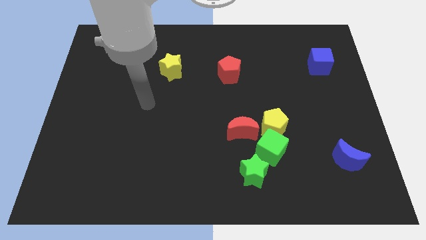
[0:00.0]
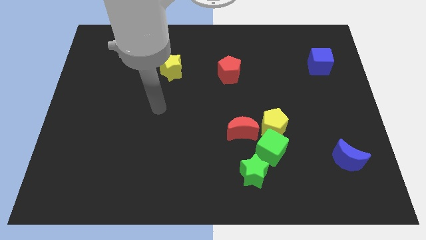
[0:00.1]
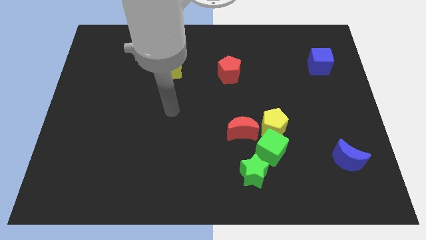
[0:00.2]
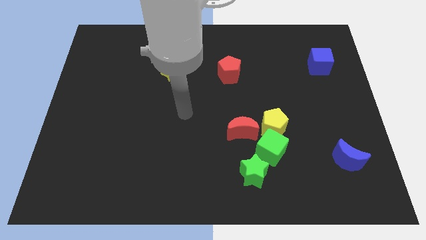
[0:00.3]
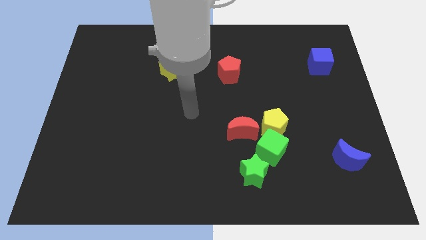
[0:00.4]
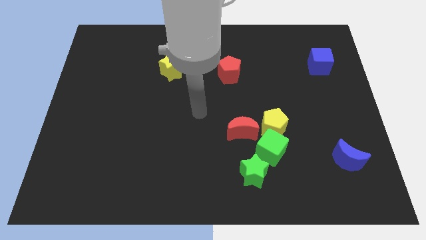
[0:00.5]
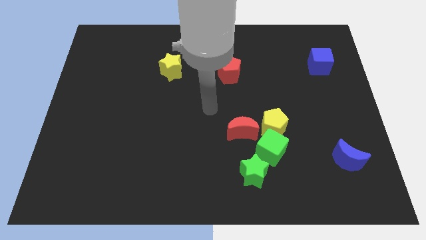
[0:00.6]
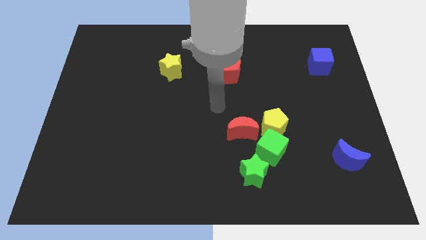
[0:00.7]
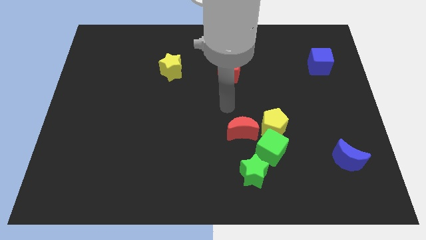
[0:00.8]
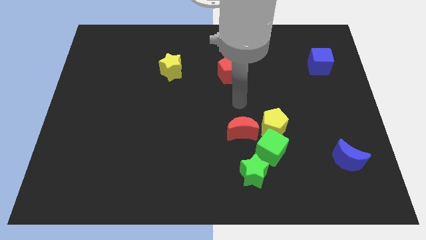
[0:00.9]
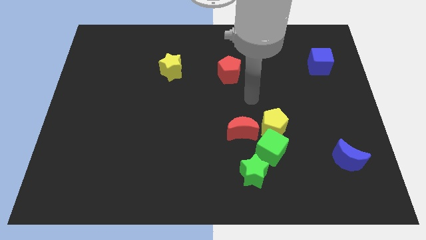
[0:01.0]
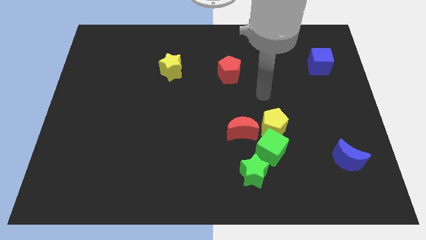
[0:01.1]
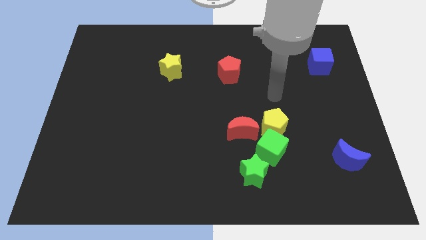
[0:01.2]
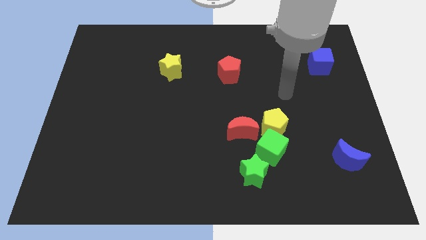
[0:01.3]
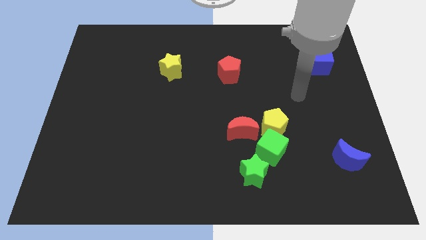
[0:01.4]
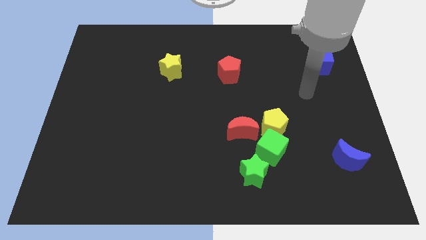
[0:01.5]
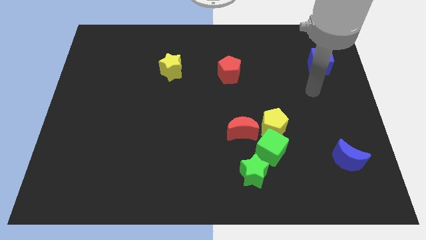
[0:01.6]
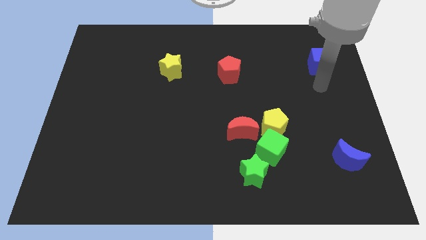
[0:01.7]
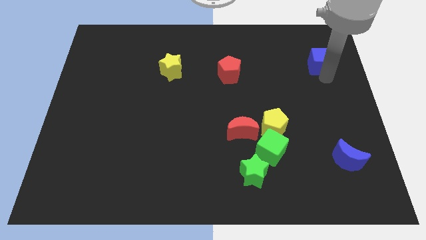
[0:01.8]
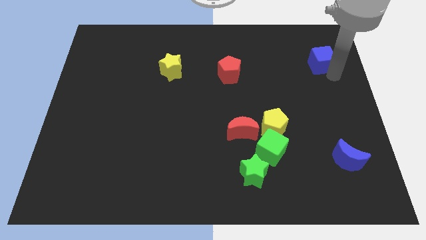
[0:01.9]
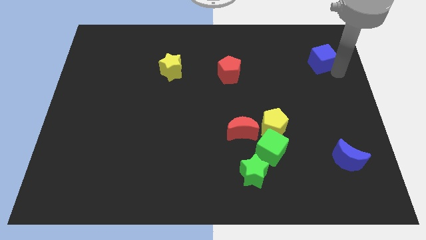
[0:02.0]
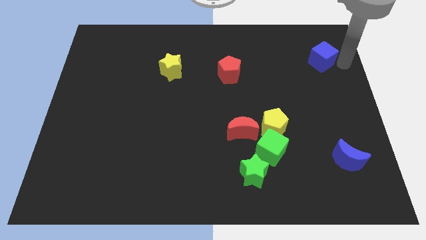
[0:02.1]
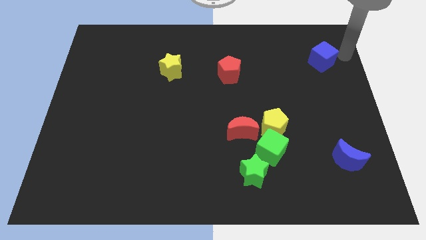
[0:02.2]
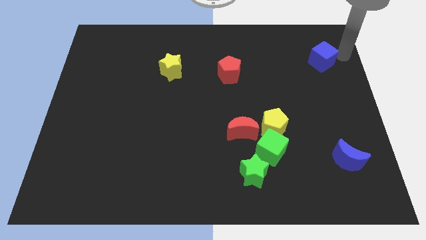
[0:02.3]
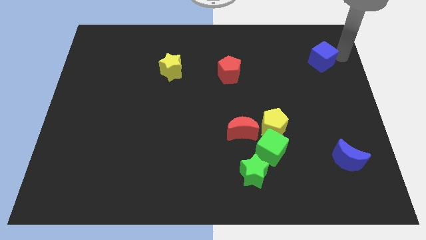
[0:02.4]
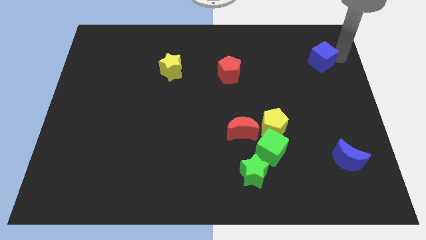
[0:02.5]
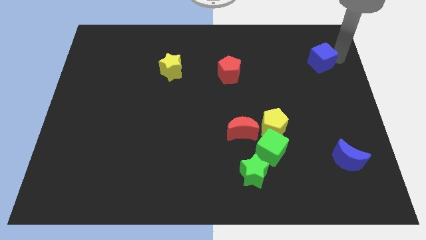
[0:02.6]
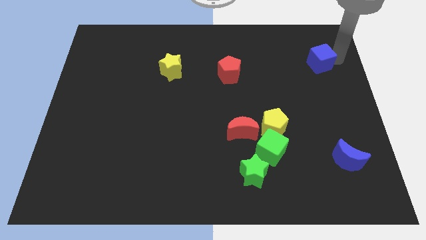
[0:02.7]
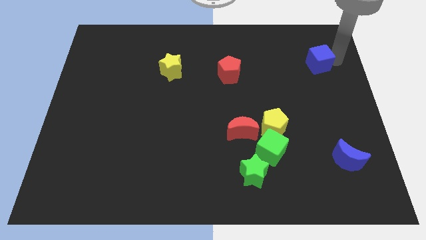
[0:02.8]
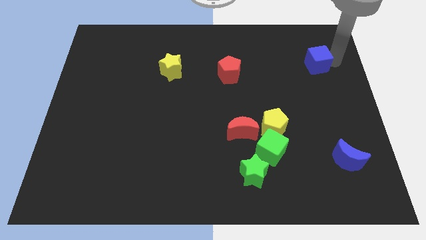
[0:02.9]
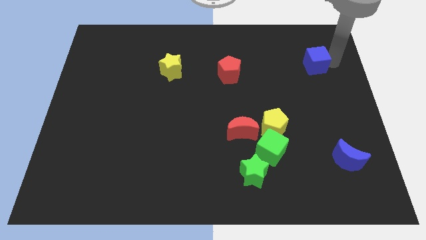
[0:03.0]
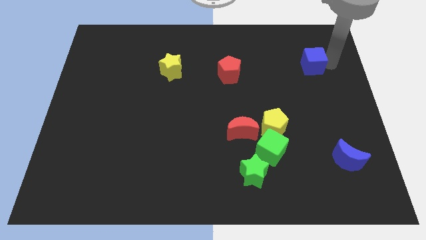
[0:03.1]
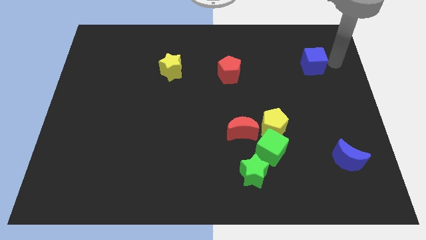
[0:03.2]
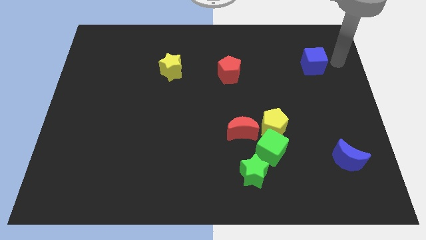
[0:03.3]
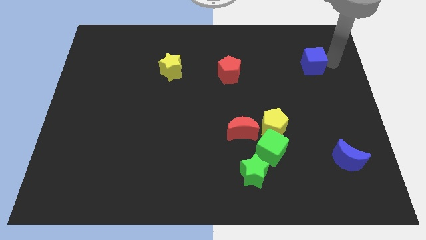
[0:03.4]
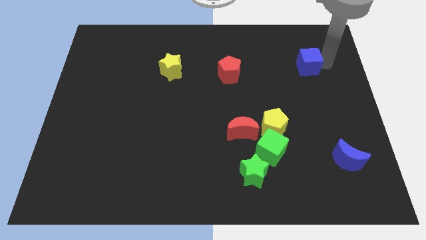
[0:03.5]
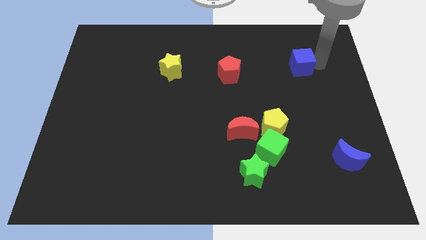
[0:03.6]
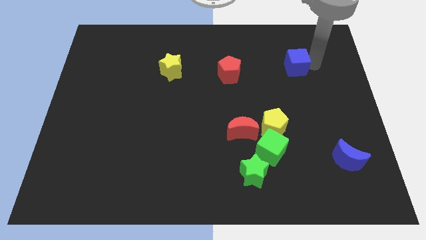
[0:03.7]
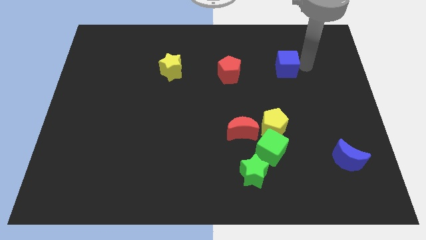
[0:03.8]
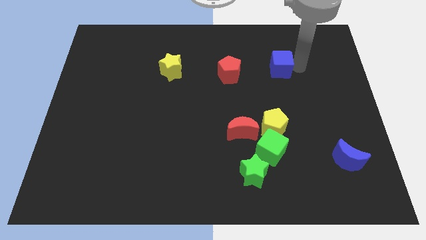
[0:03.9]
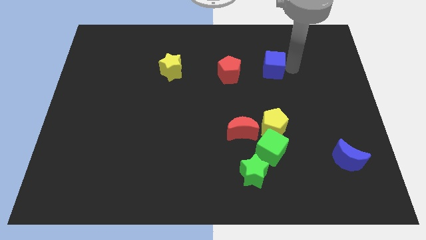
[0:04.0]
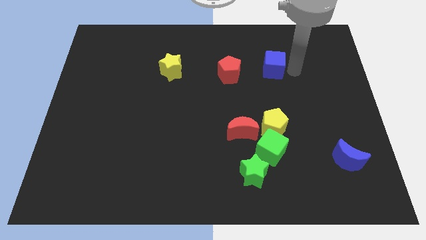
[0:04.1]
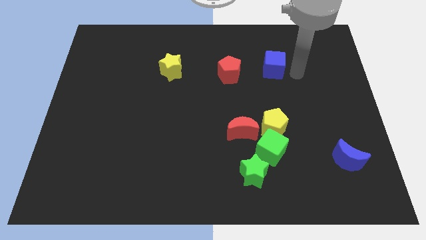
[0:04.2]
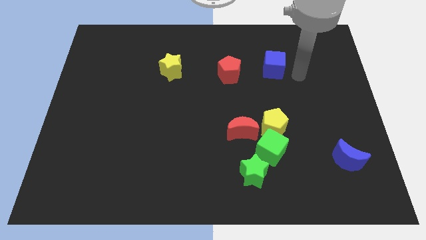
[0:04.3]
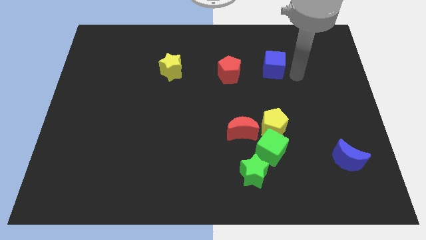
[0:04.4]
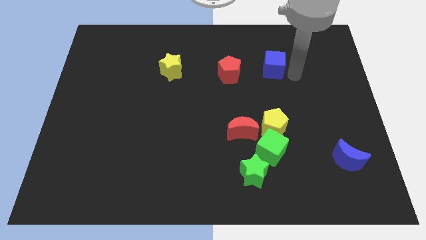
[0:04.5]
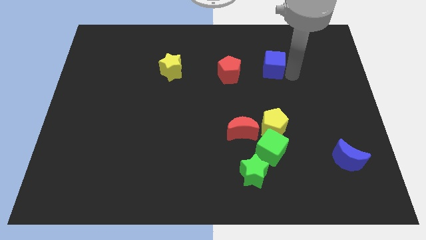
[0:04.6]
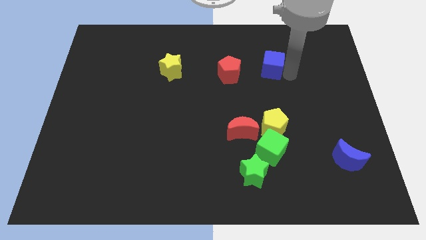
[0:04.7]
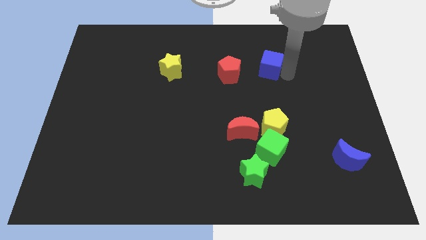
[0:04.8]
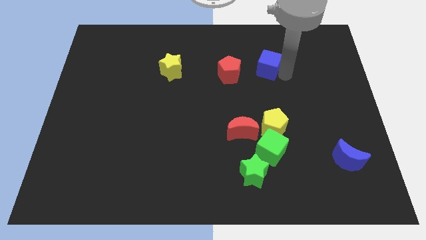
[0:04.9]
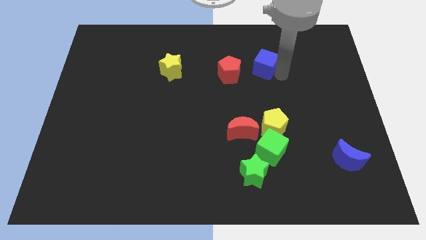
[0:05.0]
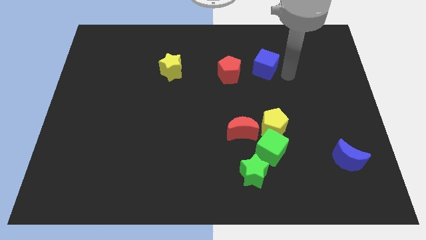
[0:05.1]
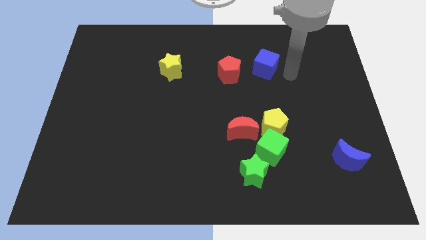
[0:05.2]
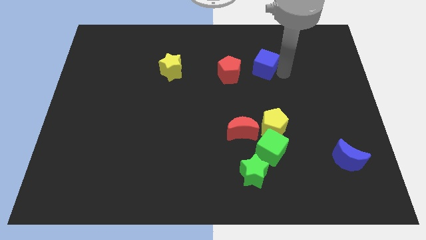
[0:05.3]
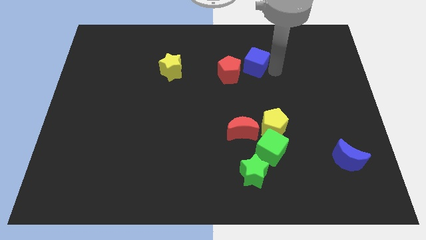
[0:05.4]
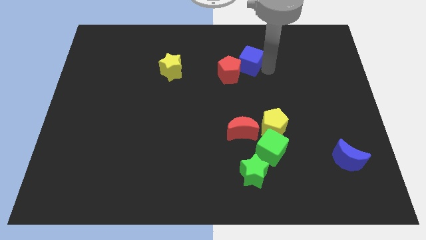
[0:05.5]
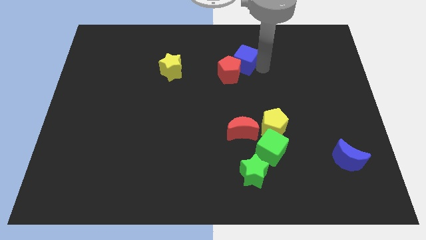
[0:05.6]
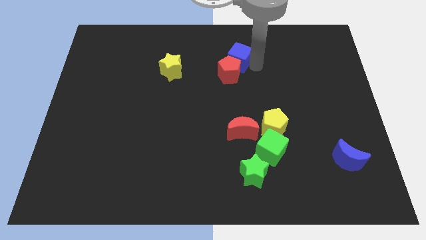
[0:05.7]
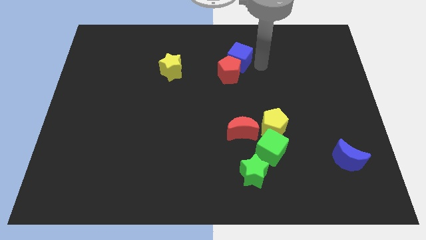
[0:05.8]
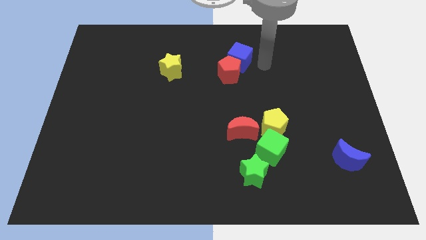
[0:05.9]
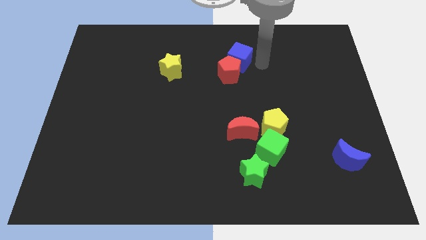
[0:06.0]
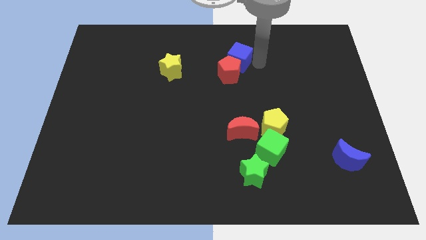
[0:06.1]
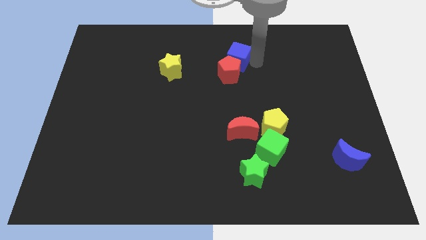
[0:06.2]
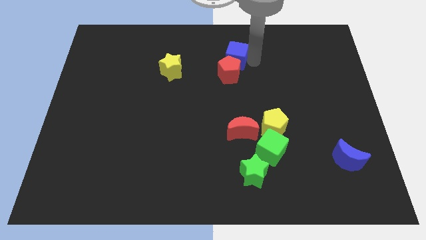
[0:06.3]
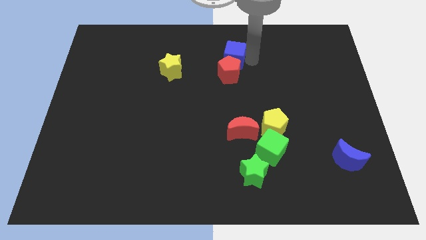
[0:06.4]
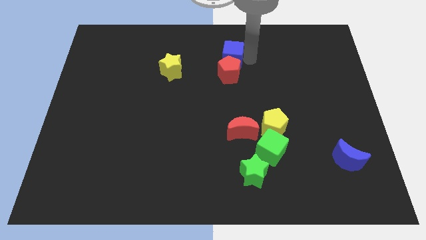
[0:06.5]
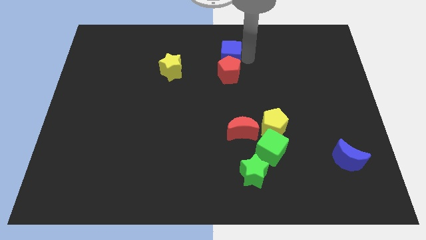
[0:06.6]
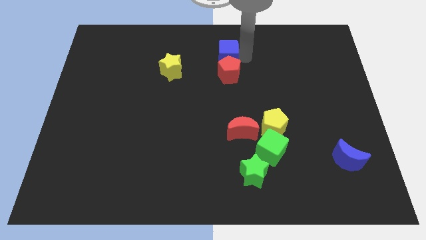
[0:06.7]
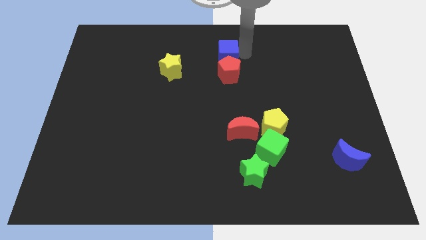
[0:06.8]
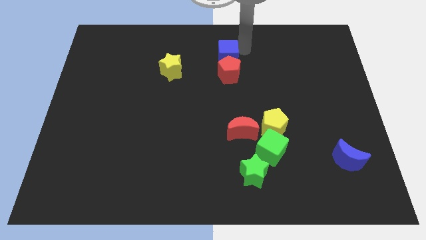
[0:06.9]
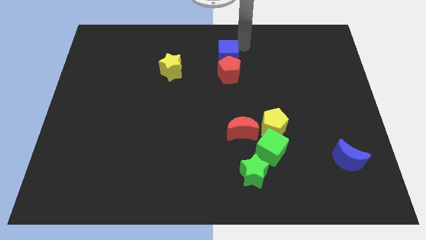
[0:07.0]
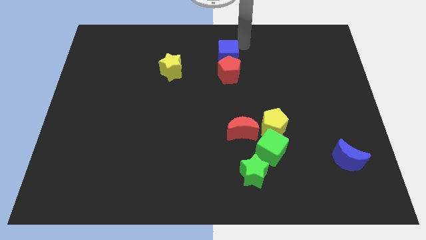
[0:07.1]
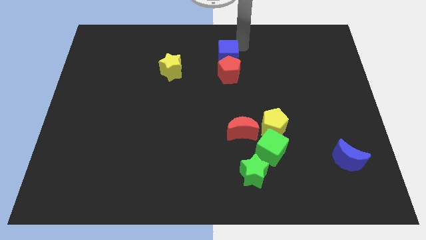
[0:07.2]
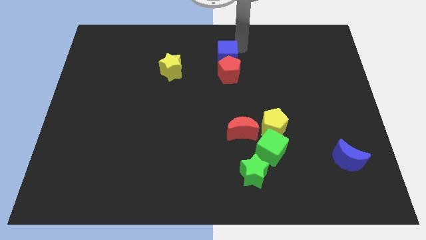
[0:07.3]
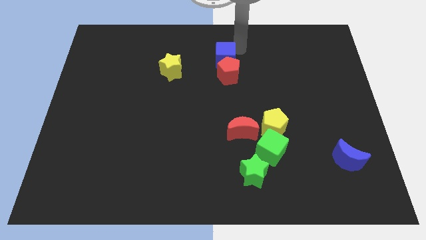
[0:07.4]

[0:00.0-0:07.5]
move the blue cube to the right of the yellow star

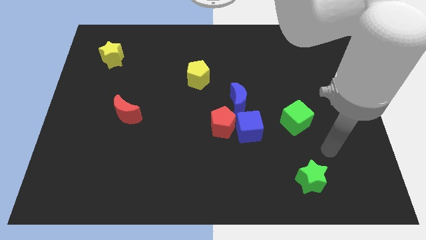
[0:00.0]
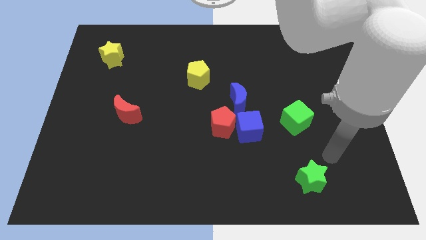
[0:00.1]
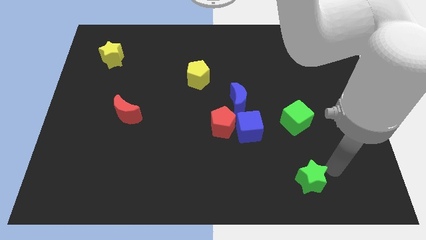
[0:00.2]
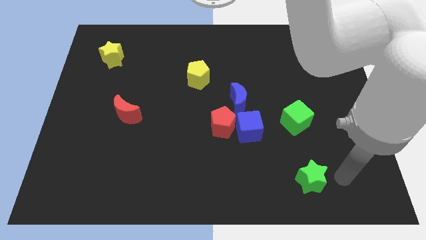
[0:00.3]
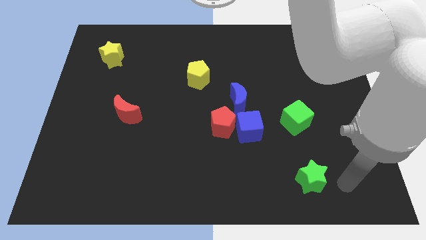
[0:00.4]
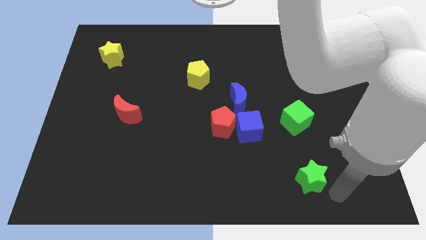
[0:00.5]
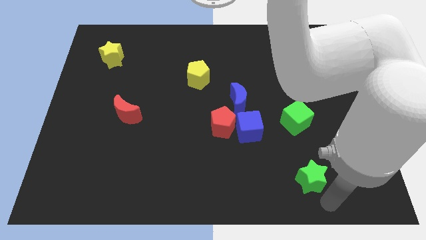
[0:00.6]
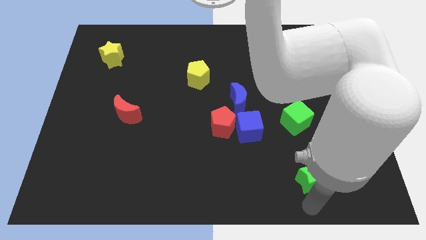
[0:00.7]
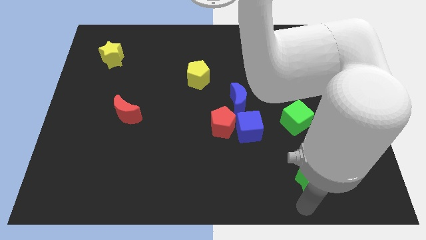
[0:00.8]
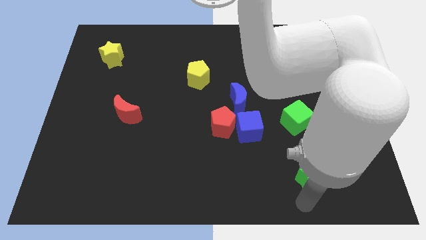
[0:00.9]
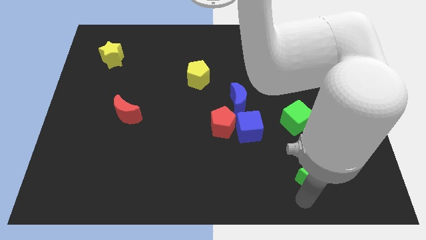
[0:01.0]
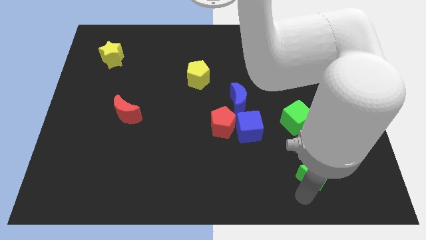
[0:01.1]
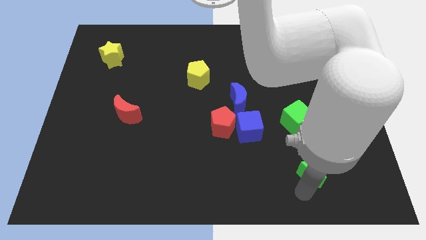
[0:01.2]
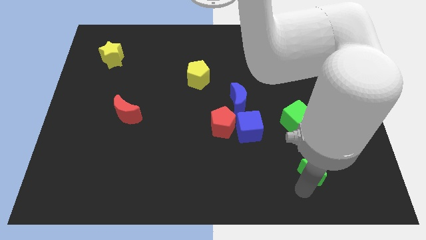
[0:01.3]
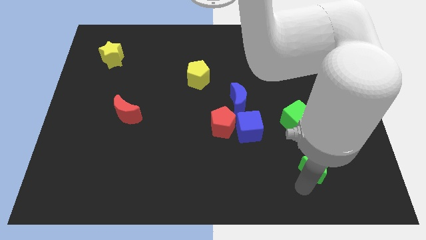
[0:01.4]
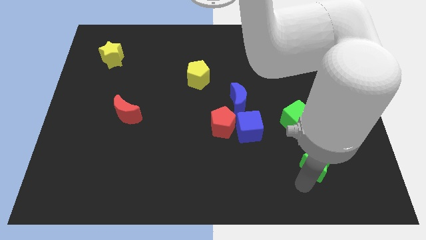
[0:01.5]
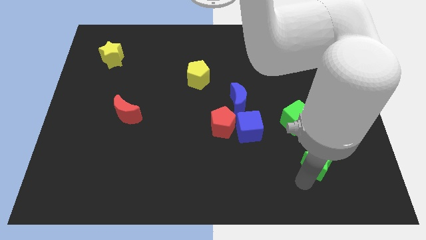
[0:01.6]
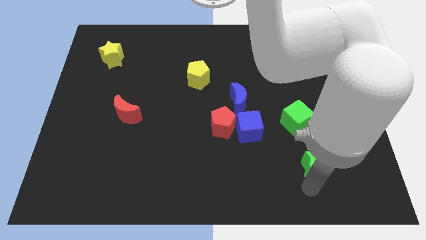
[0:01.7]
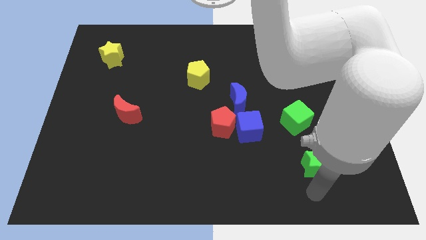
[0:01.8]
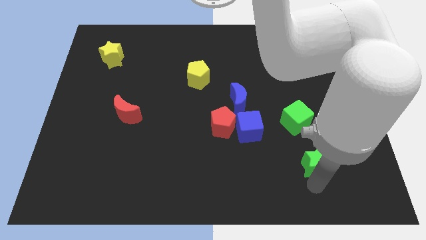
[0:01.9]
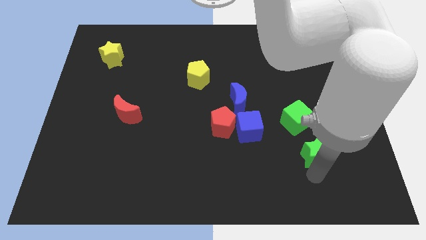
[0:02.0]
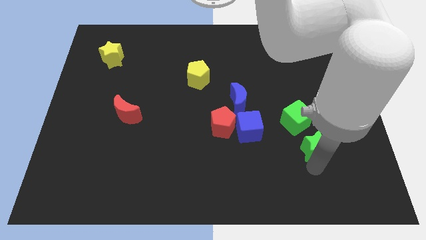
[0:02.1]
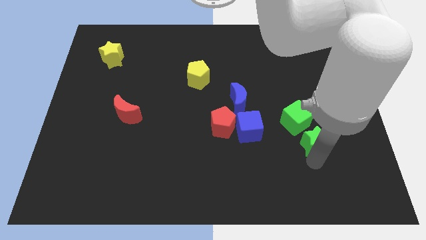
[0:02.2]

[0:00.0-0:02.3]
put the green star to the right side of the blue cube
